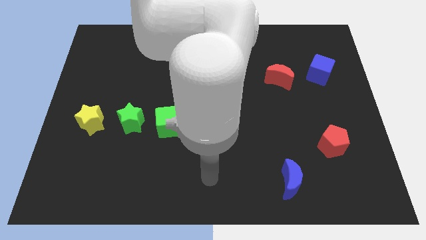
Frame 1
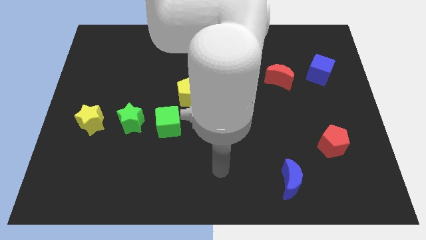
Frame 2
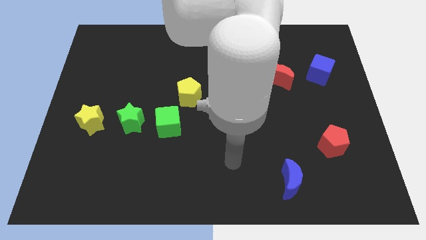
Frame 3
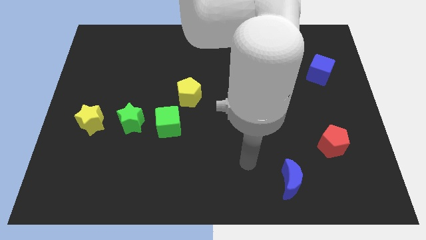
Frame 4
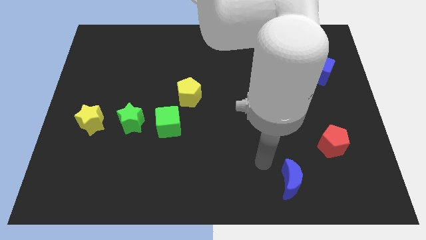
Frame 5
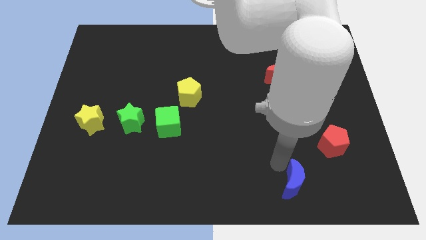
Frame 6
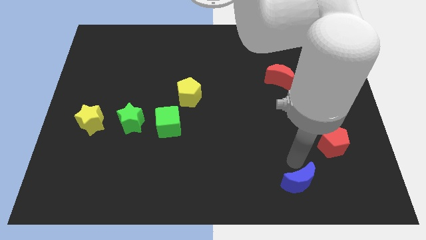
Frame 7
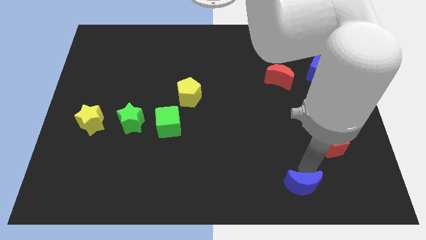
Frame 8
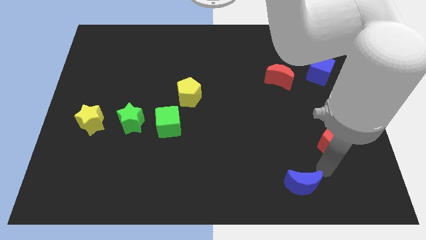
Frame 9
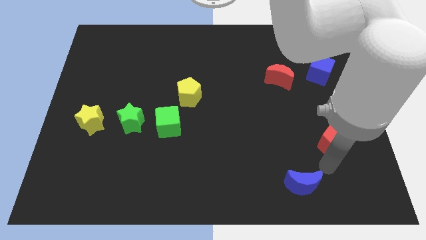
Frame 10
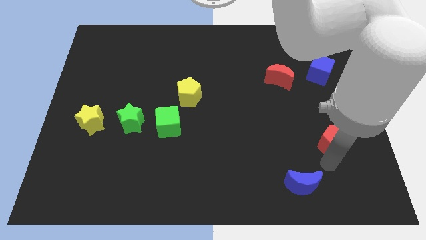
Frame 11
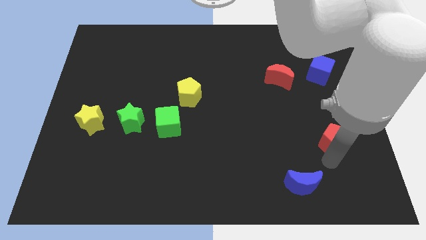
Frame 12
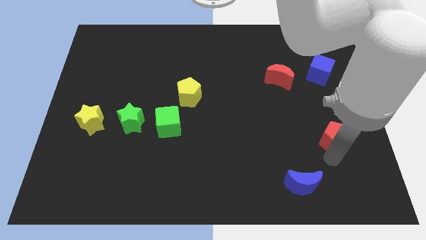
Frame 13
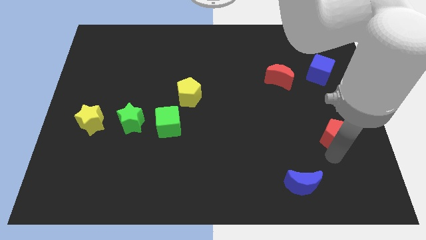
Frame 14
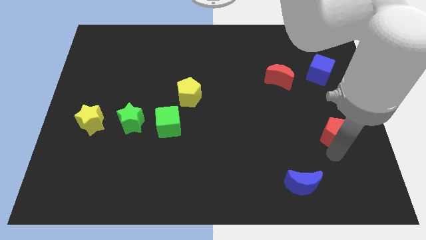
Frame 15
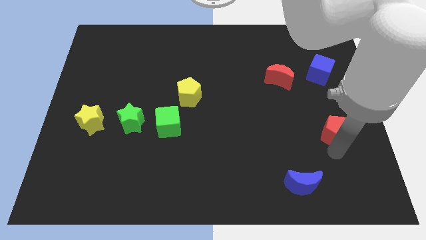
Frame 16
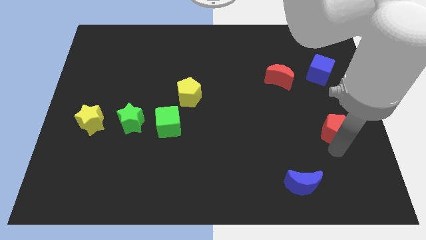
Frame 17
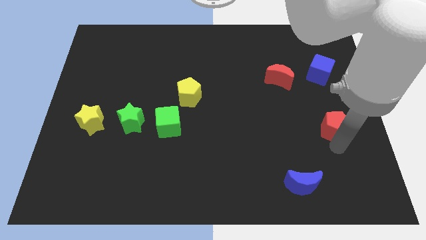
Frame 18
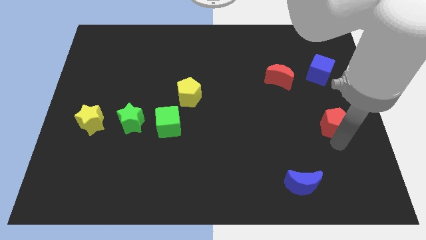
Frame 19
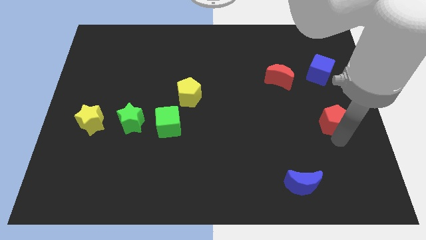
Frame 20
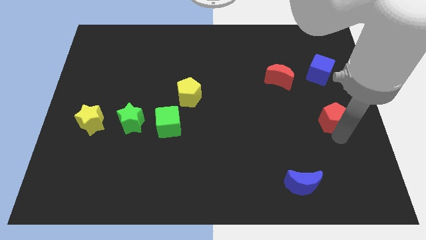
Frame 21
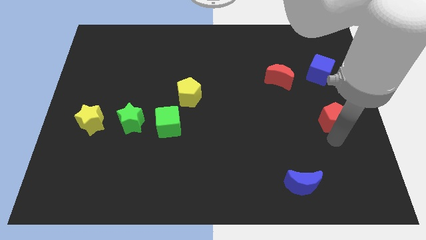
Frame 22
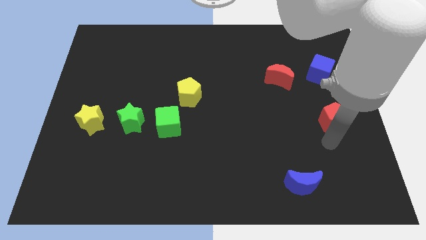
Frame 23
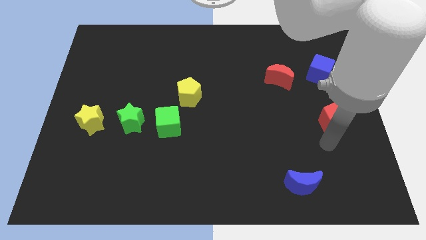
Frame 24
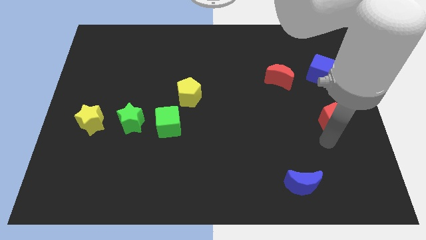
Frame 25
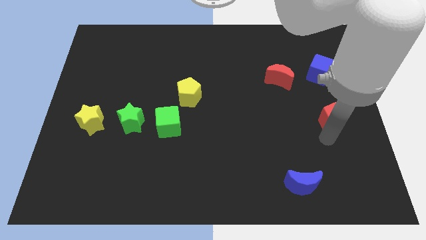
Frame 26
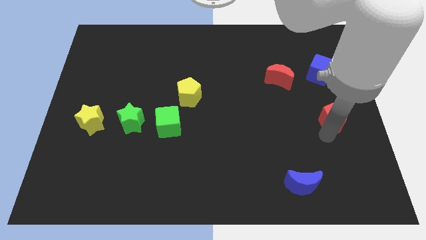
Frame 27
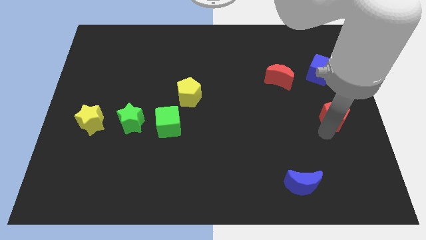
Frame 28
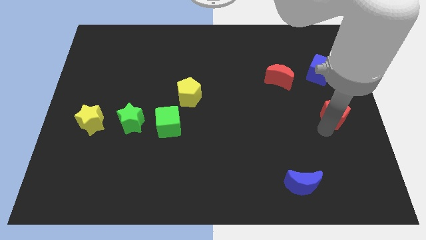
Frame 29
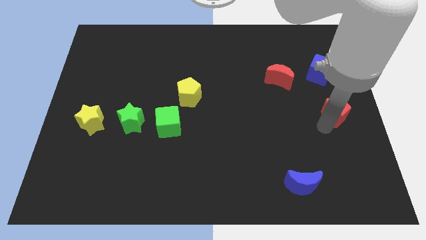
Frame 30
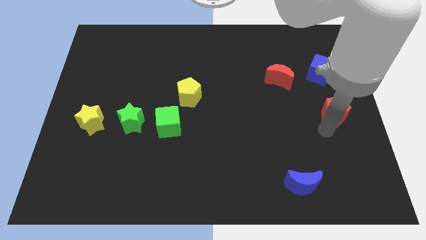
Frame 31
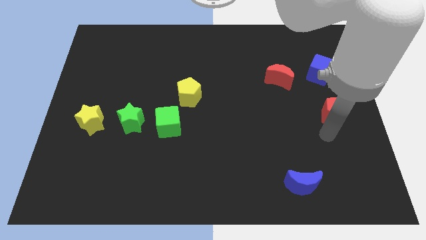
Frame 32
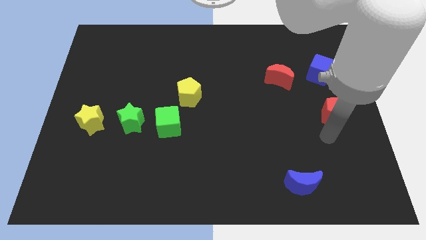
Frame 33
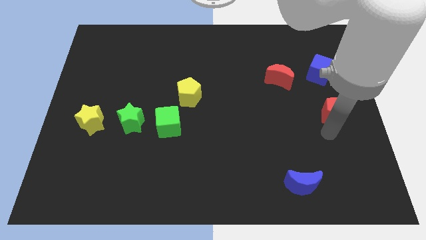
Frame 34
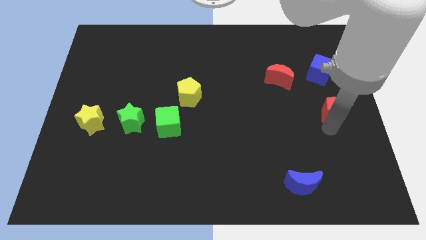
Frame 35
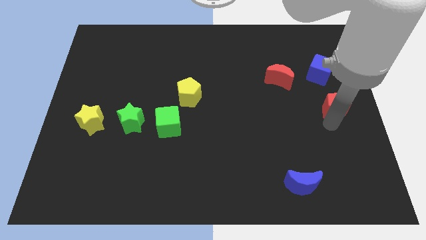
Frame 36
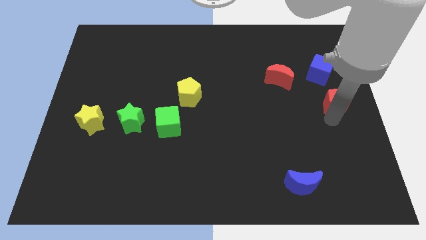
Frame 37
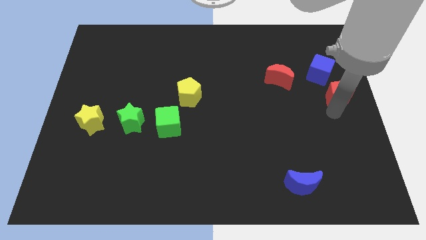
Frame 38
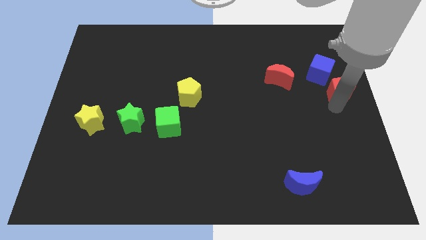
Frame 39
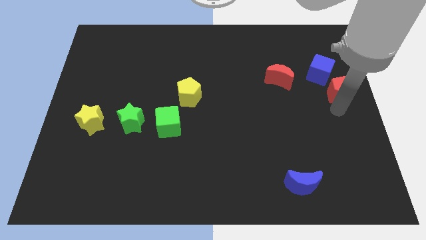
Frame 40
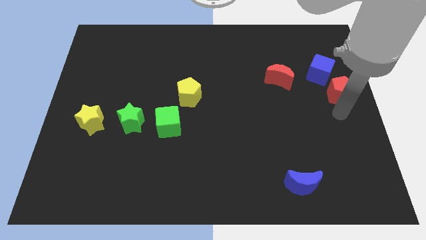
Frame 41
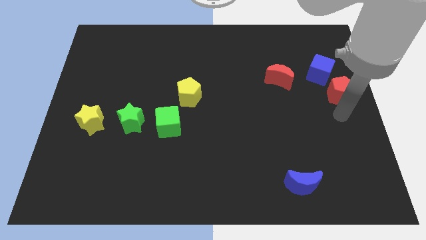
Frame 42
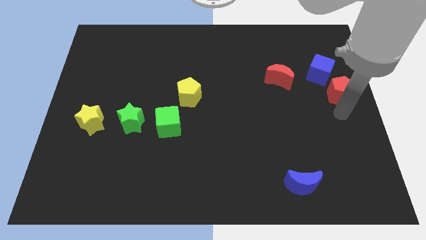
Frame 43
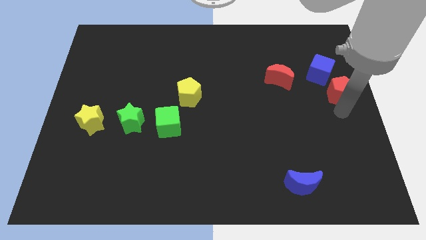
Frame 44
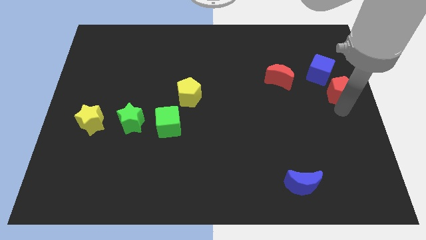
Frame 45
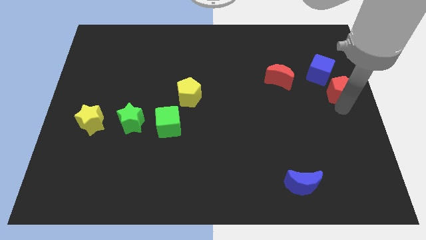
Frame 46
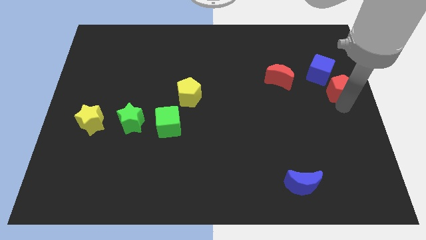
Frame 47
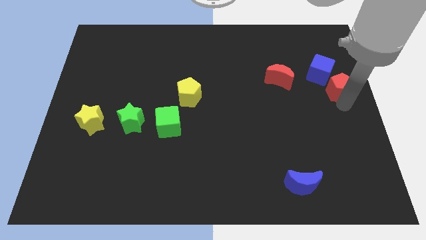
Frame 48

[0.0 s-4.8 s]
put the red pentagon just right of the red moon

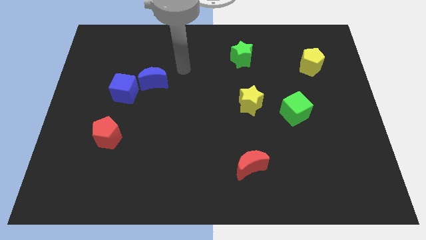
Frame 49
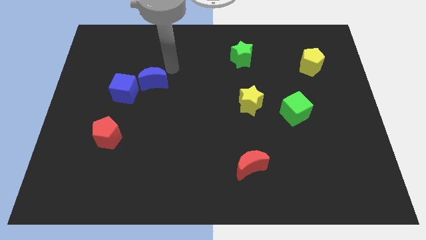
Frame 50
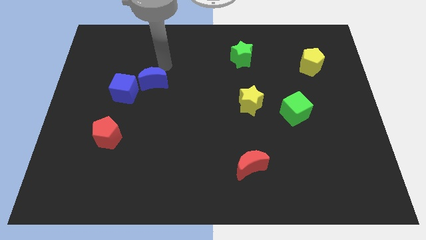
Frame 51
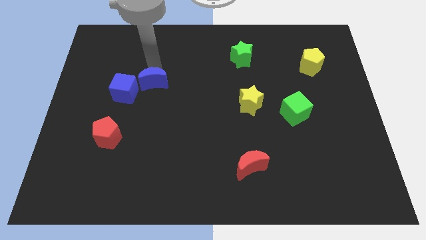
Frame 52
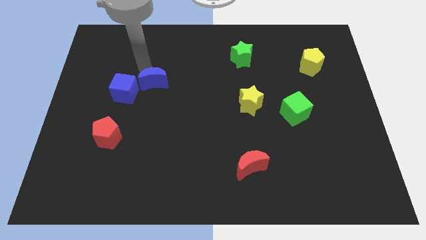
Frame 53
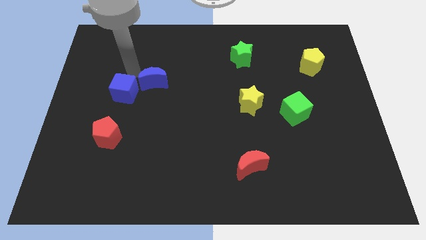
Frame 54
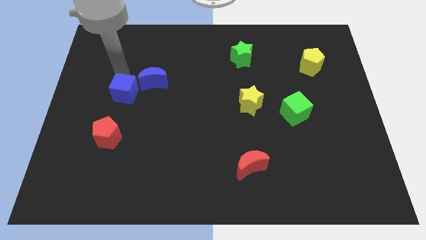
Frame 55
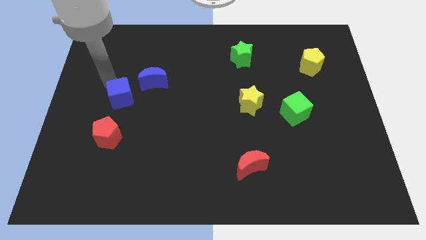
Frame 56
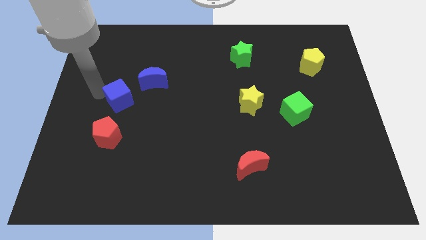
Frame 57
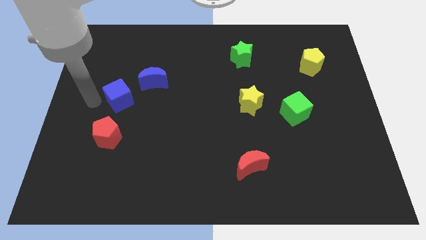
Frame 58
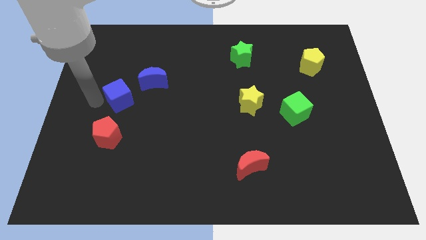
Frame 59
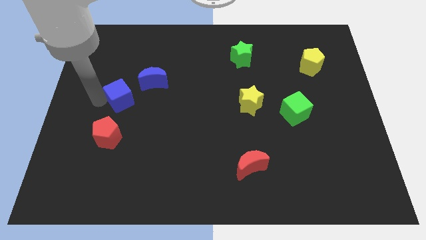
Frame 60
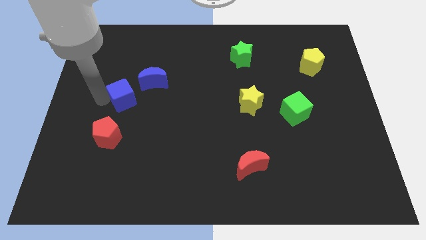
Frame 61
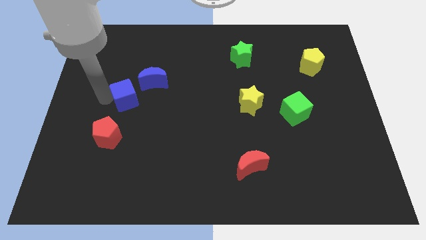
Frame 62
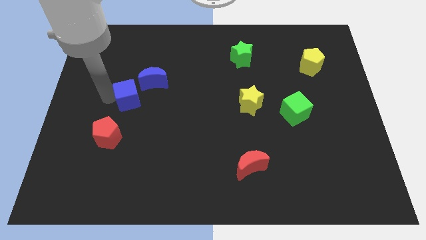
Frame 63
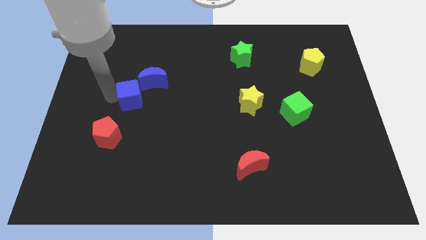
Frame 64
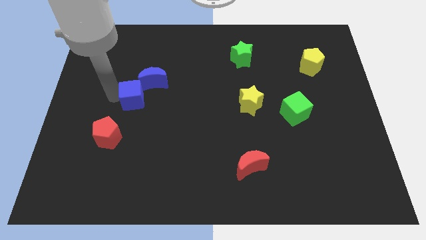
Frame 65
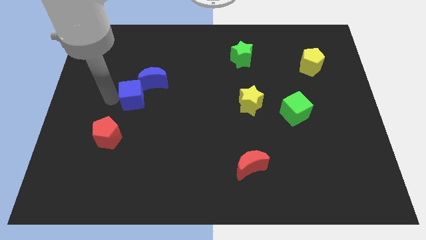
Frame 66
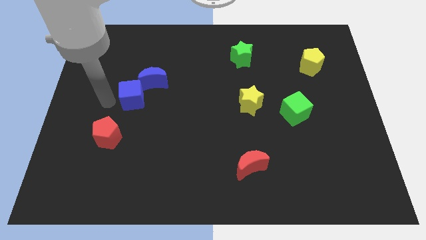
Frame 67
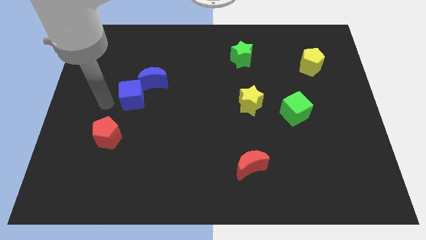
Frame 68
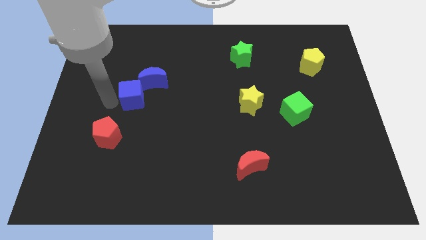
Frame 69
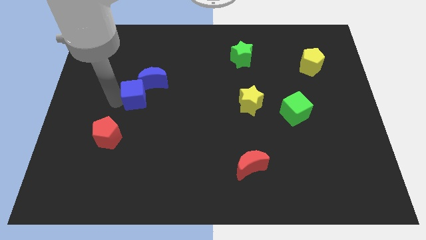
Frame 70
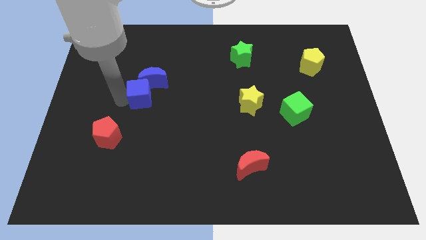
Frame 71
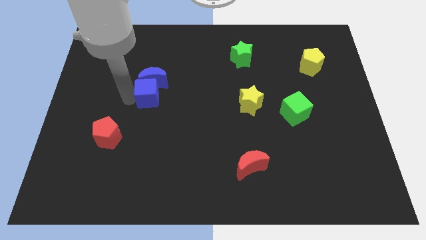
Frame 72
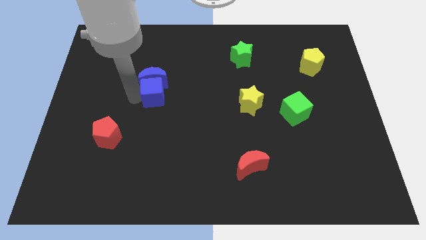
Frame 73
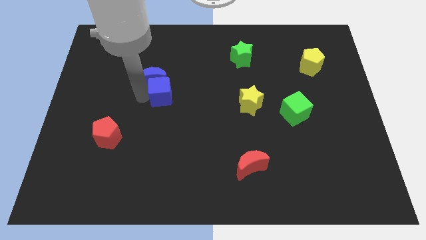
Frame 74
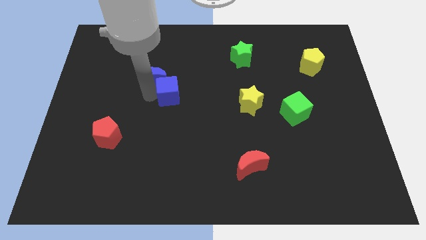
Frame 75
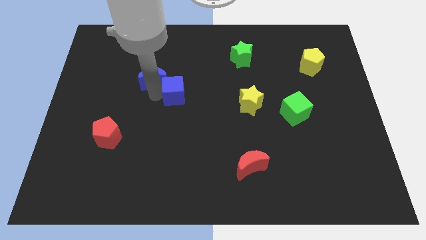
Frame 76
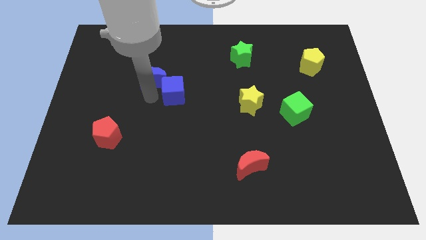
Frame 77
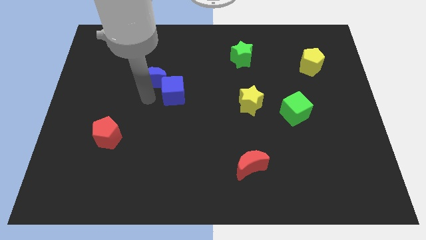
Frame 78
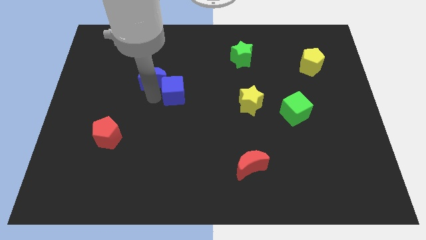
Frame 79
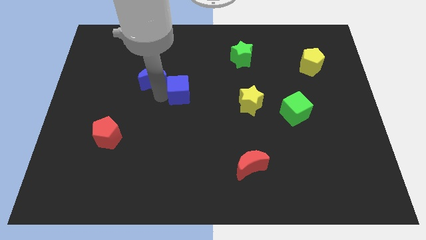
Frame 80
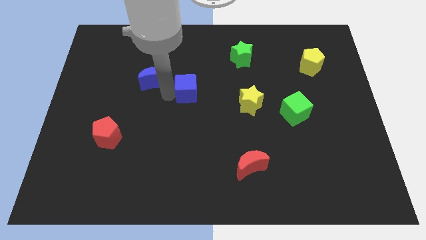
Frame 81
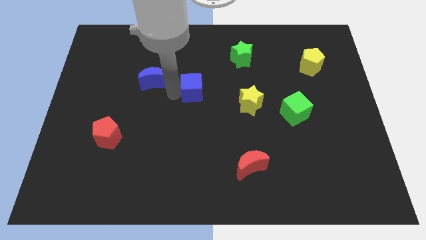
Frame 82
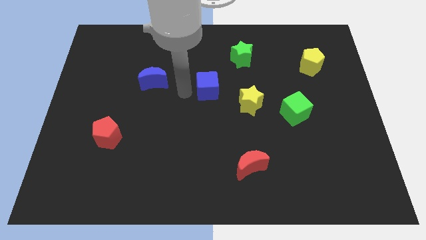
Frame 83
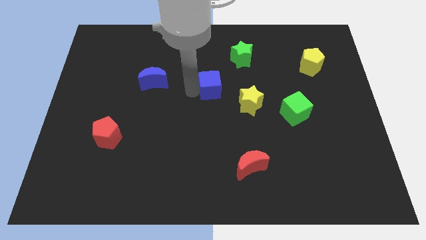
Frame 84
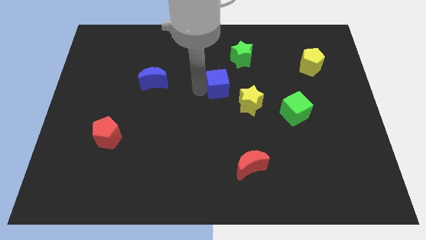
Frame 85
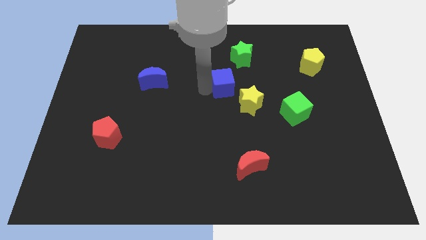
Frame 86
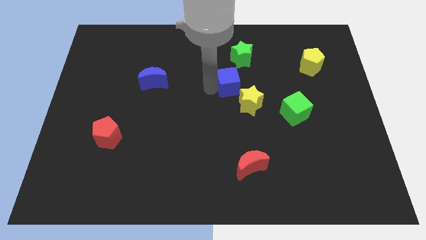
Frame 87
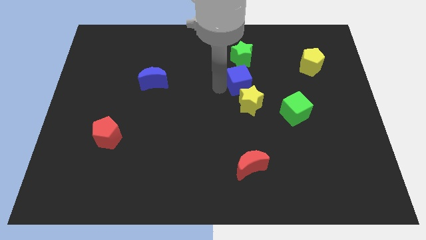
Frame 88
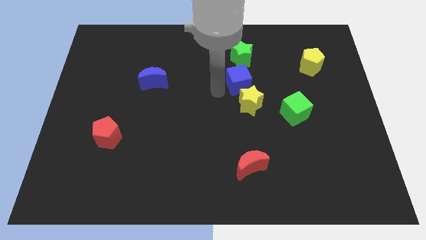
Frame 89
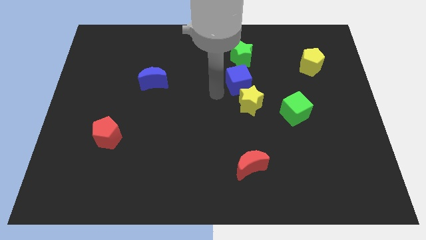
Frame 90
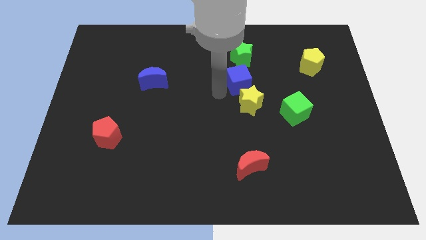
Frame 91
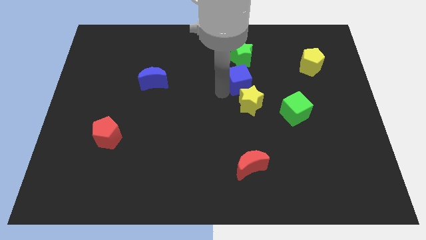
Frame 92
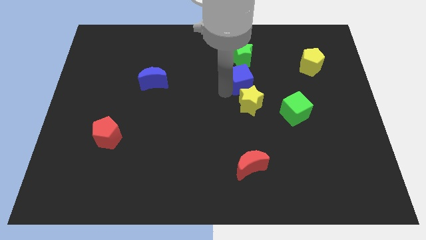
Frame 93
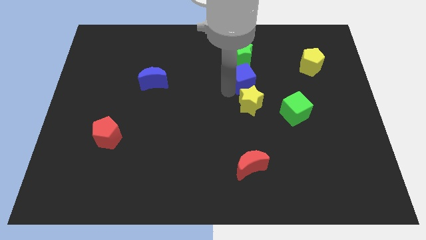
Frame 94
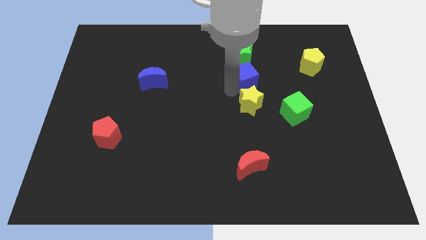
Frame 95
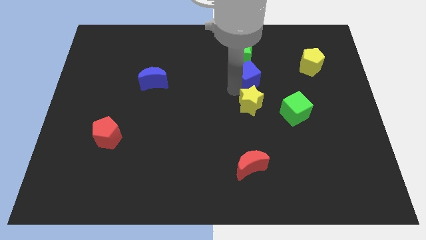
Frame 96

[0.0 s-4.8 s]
slide the blue cube to the bottom right side of the green star
